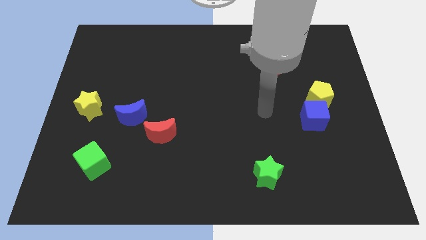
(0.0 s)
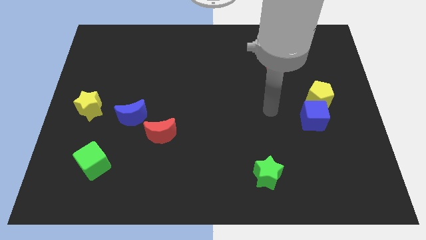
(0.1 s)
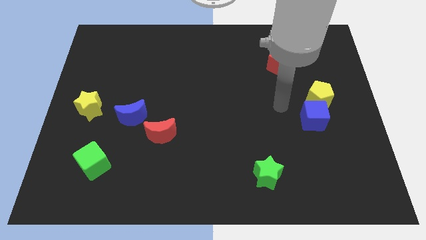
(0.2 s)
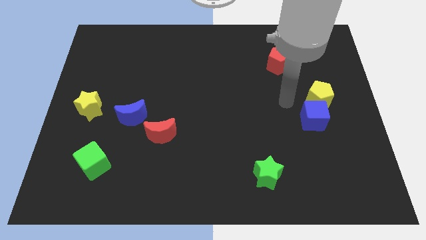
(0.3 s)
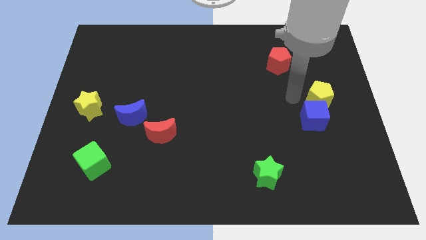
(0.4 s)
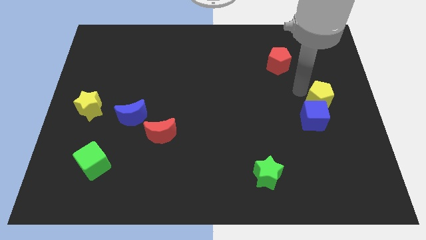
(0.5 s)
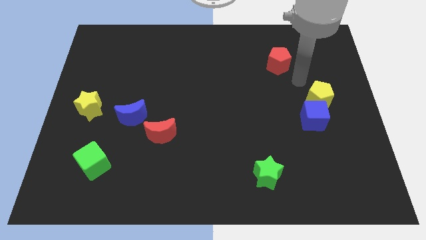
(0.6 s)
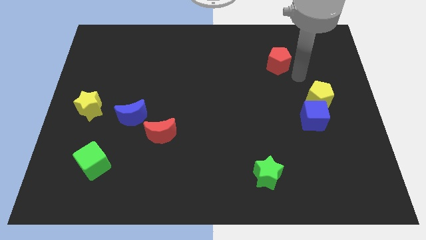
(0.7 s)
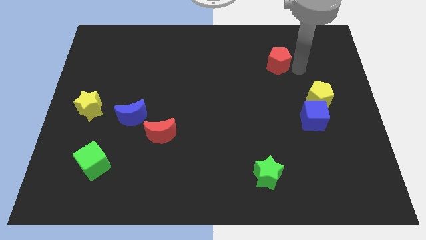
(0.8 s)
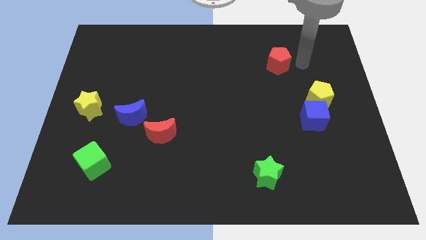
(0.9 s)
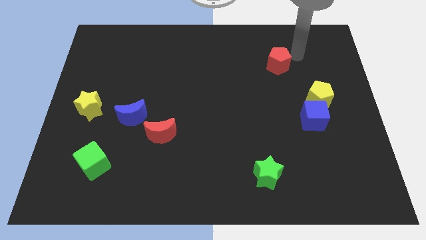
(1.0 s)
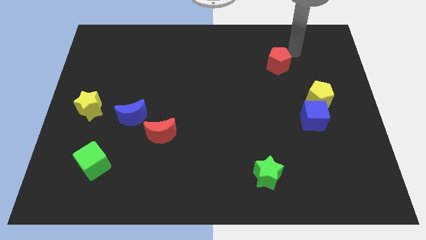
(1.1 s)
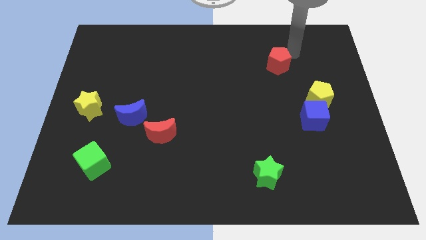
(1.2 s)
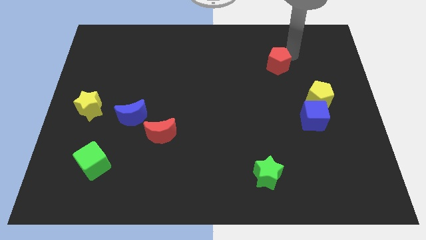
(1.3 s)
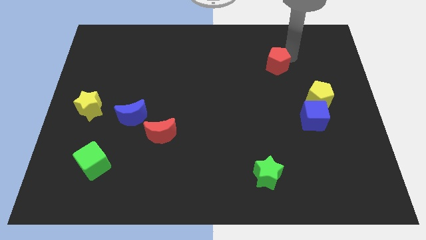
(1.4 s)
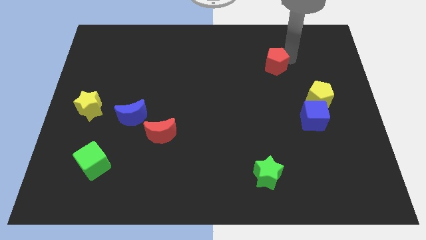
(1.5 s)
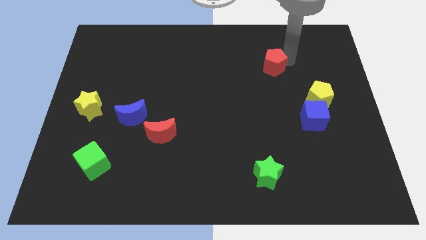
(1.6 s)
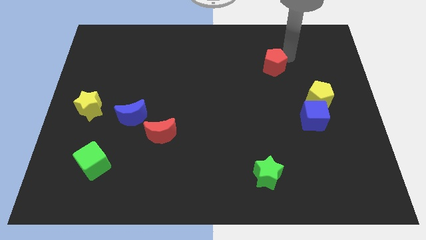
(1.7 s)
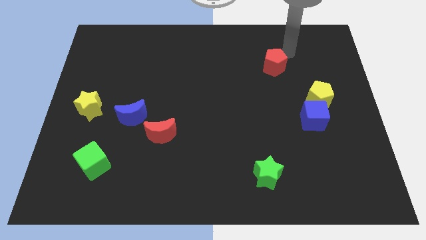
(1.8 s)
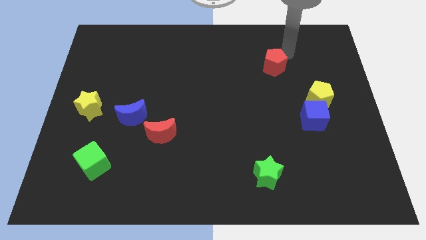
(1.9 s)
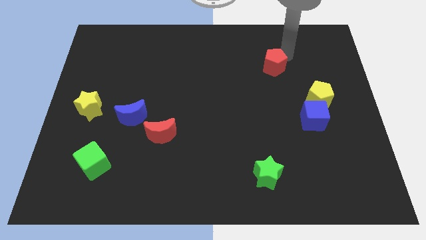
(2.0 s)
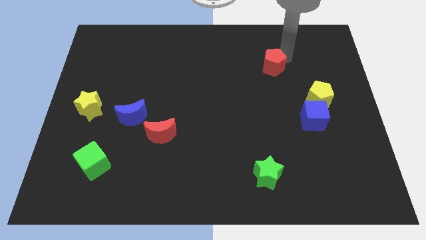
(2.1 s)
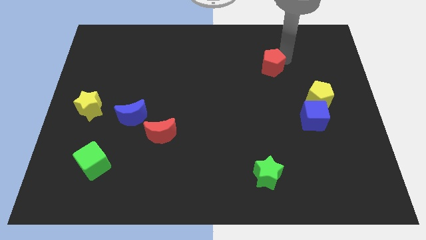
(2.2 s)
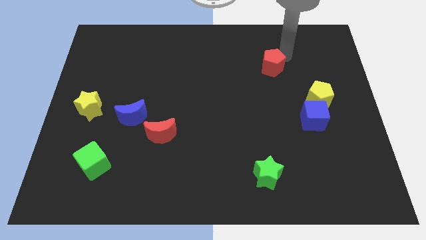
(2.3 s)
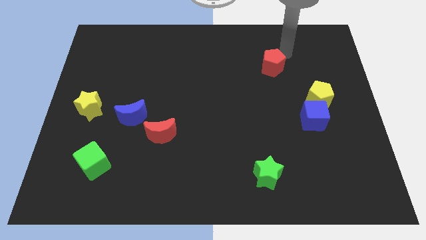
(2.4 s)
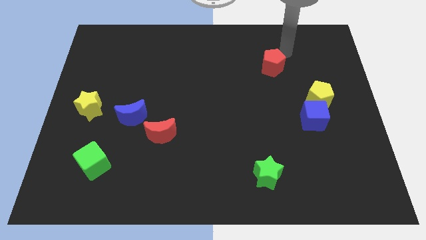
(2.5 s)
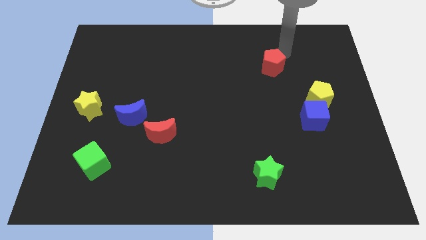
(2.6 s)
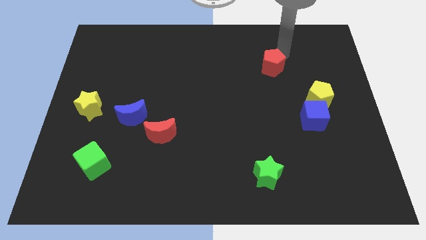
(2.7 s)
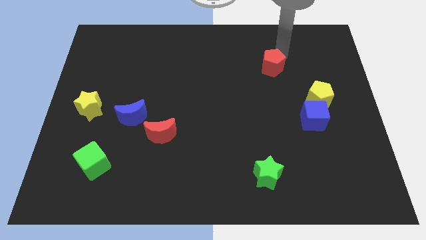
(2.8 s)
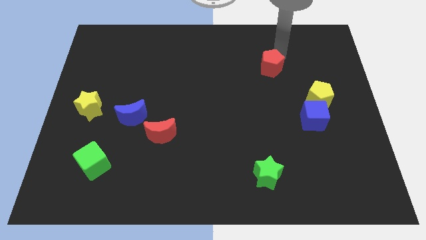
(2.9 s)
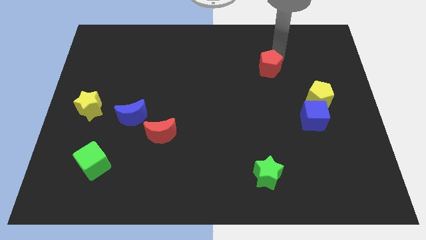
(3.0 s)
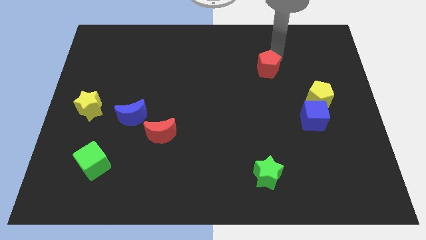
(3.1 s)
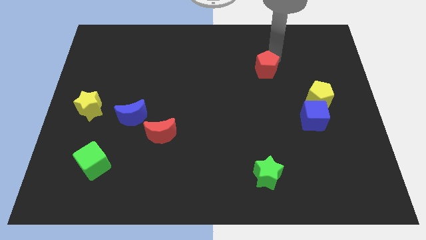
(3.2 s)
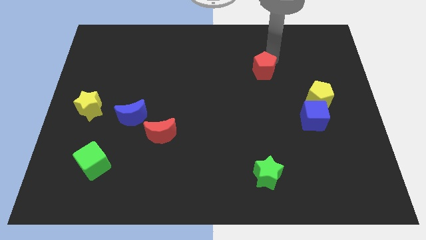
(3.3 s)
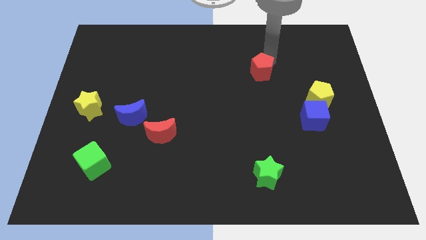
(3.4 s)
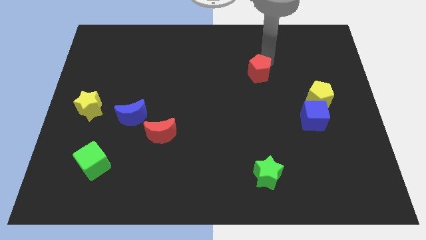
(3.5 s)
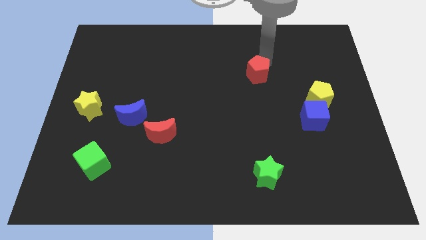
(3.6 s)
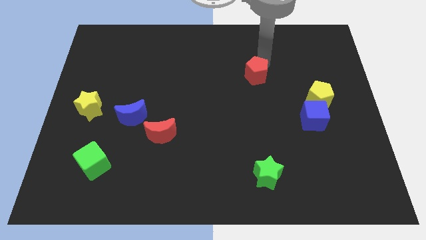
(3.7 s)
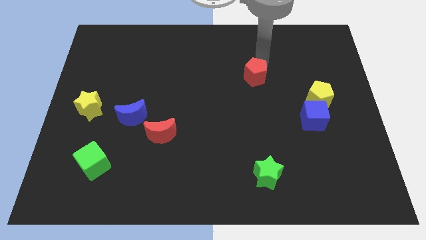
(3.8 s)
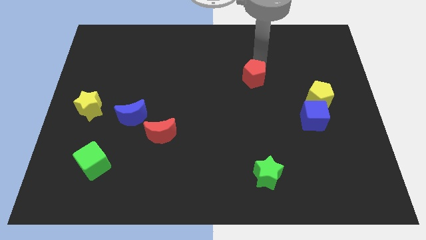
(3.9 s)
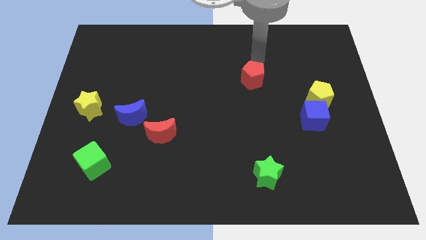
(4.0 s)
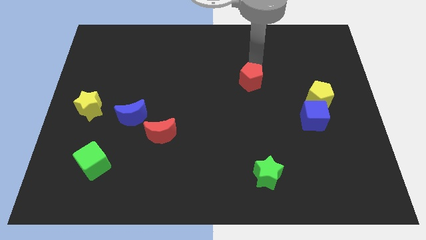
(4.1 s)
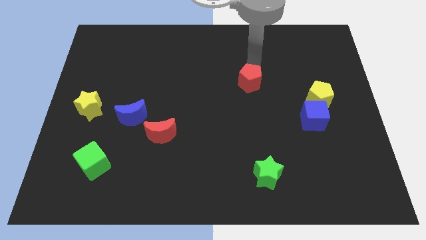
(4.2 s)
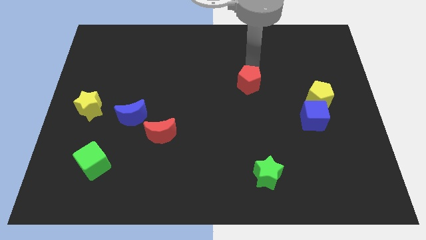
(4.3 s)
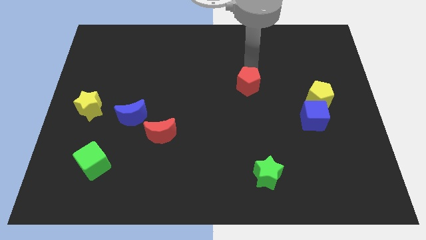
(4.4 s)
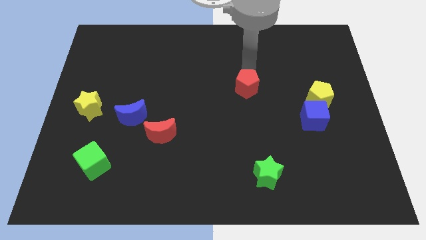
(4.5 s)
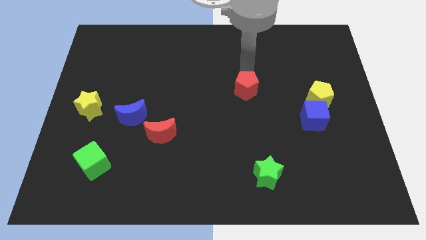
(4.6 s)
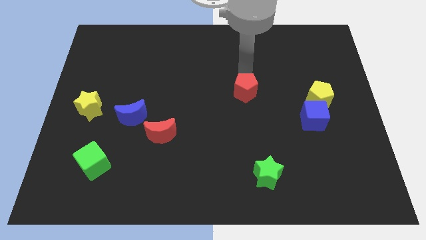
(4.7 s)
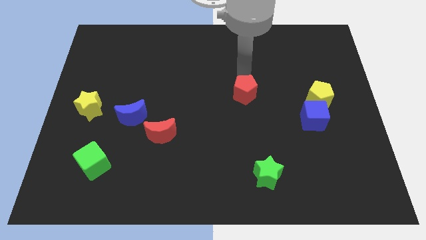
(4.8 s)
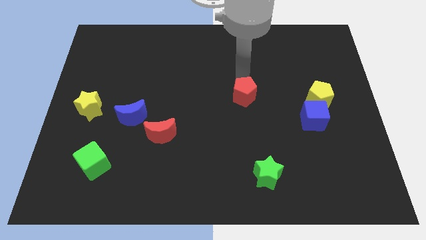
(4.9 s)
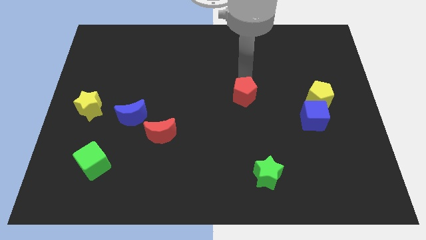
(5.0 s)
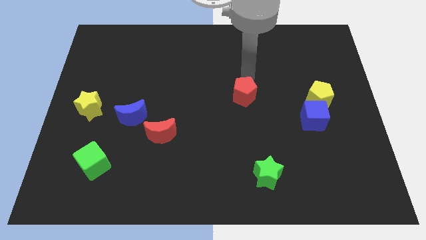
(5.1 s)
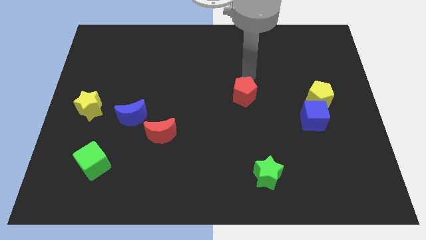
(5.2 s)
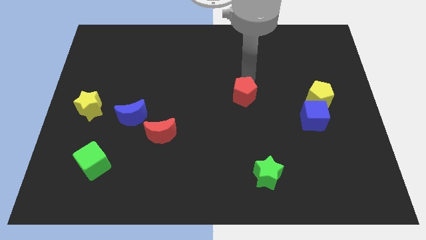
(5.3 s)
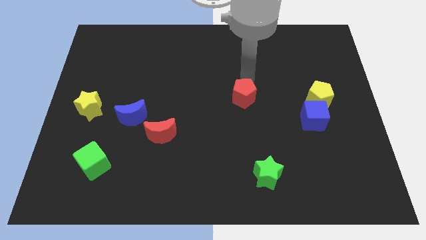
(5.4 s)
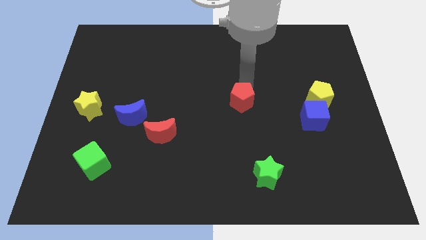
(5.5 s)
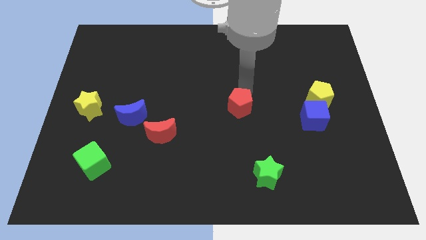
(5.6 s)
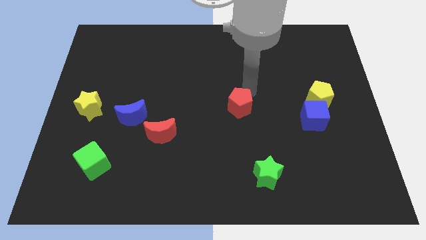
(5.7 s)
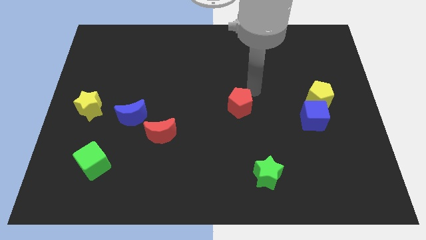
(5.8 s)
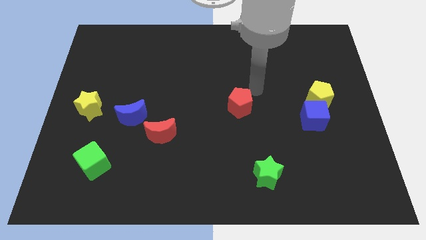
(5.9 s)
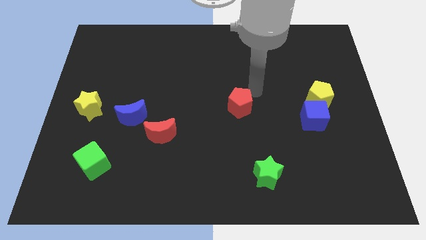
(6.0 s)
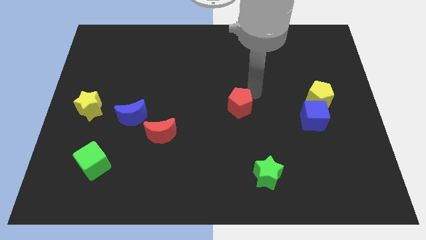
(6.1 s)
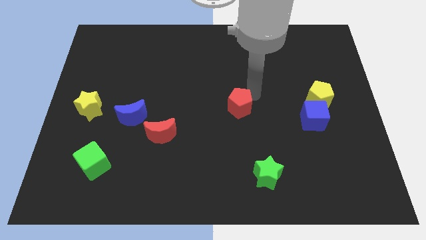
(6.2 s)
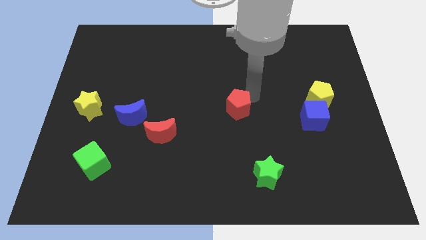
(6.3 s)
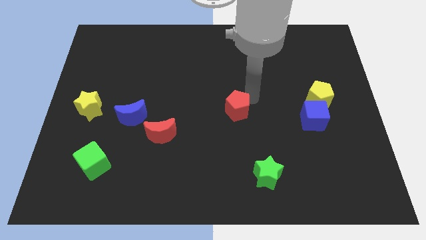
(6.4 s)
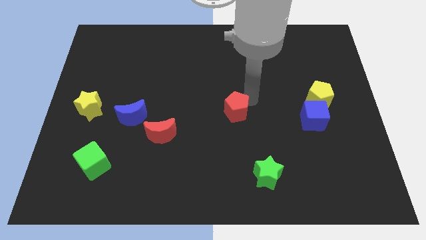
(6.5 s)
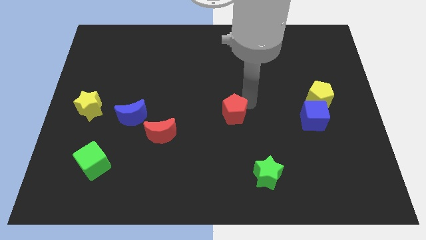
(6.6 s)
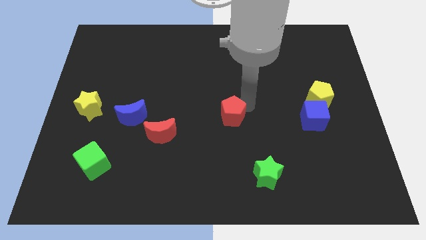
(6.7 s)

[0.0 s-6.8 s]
slide the red pentagon down and to the left

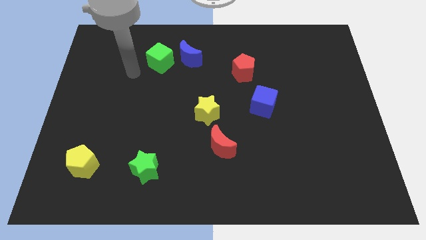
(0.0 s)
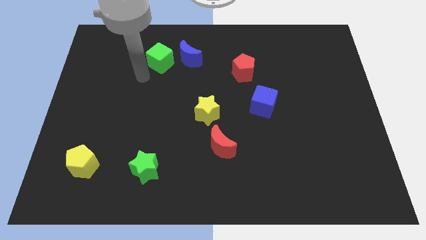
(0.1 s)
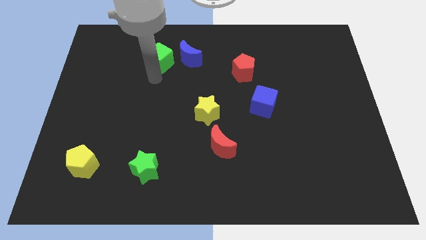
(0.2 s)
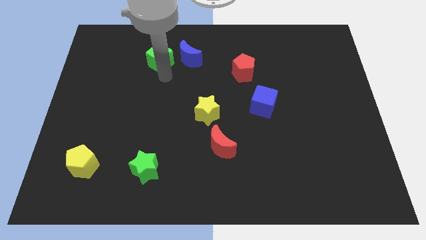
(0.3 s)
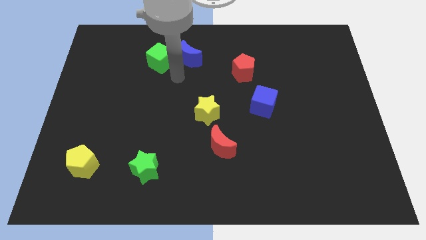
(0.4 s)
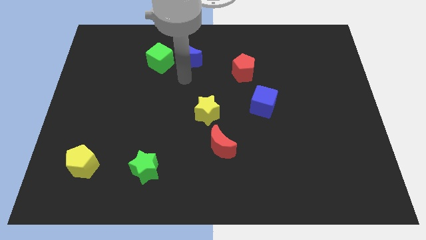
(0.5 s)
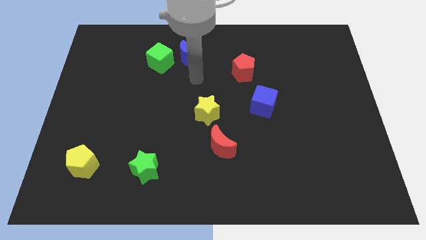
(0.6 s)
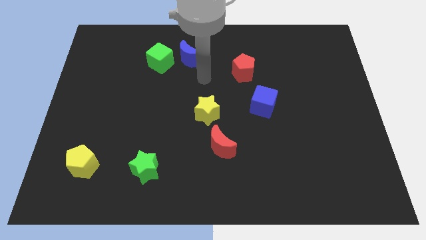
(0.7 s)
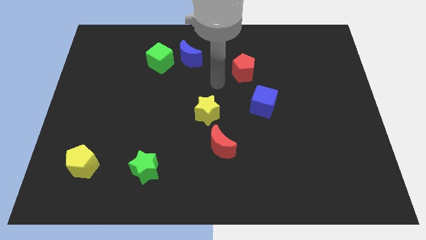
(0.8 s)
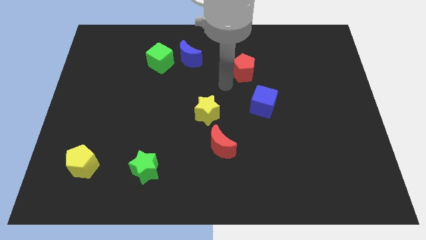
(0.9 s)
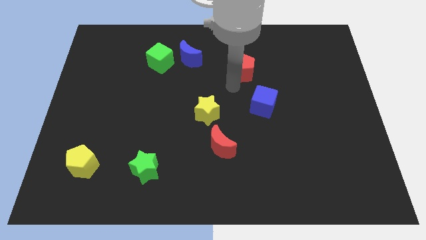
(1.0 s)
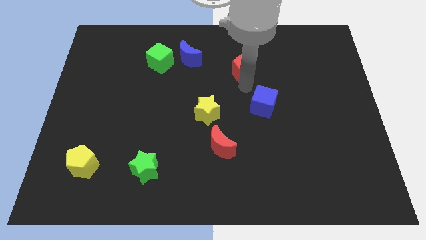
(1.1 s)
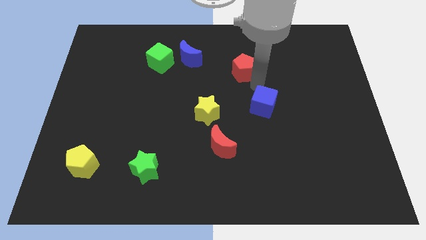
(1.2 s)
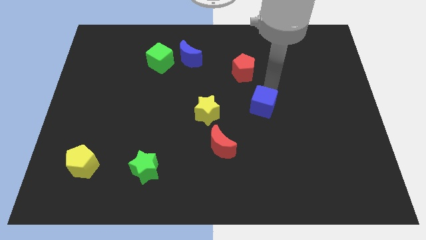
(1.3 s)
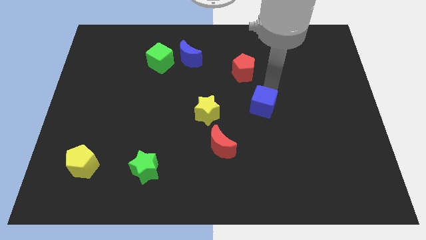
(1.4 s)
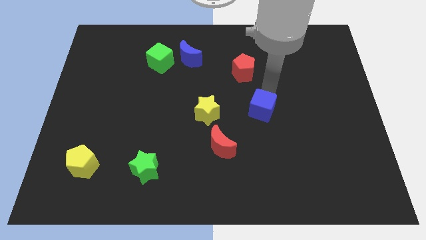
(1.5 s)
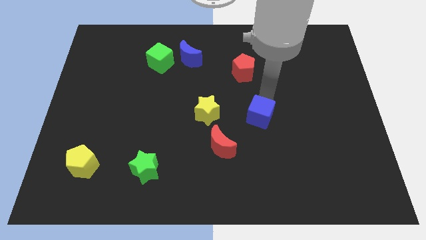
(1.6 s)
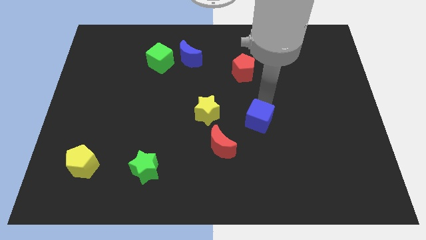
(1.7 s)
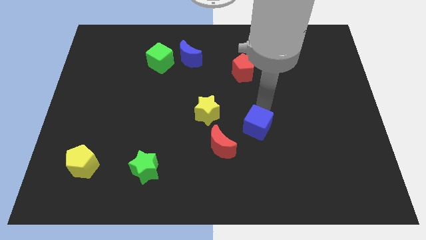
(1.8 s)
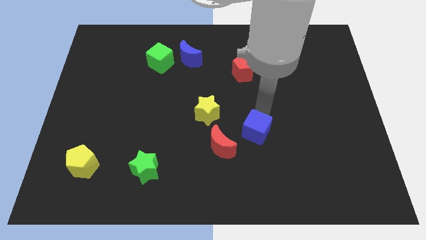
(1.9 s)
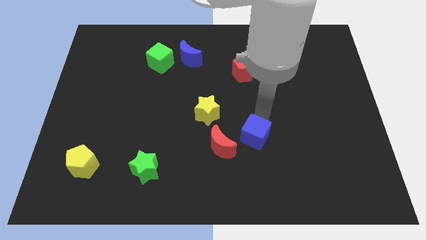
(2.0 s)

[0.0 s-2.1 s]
slightly move the blue cube downwards and to the left
